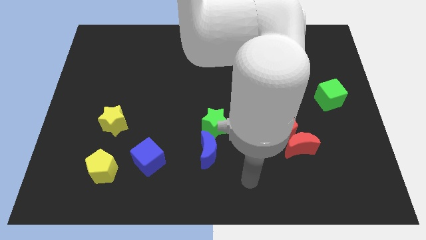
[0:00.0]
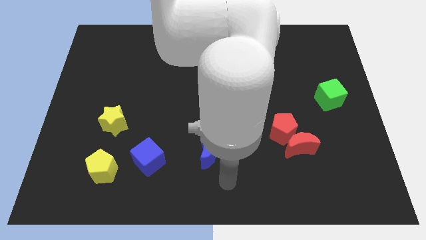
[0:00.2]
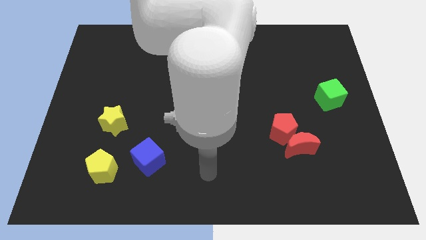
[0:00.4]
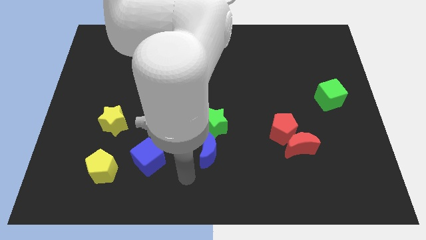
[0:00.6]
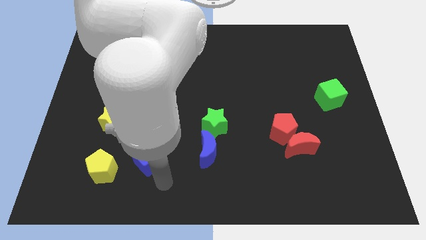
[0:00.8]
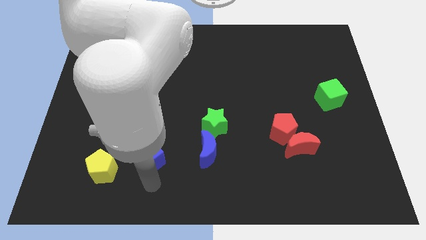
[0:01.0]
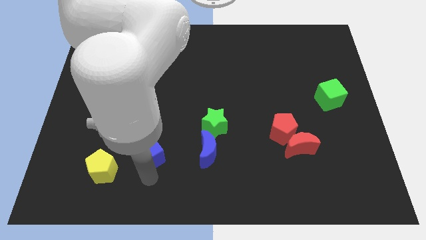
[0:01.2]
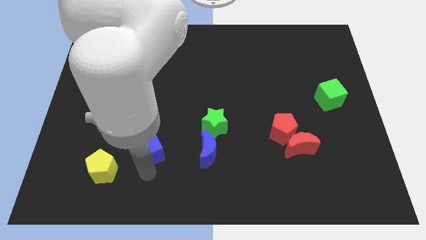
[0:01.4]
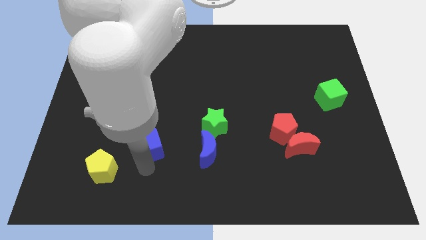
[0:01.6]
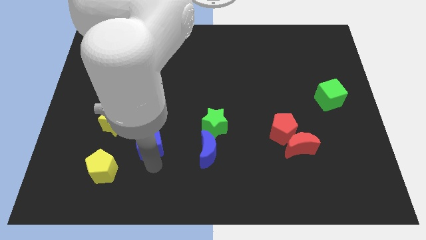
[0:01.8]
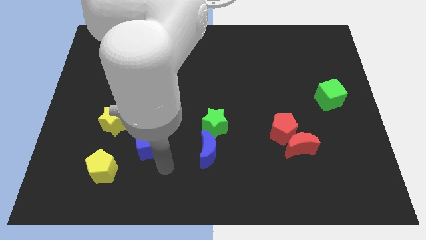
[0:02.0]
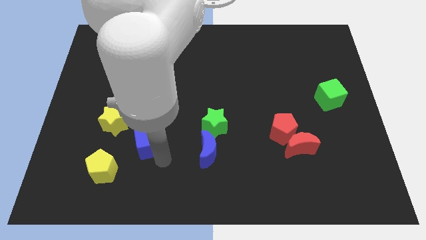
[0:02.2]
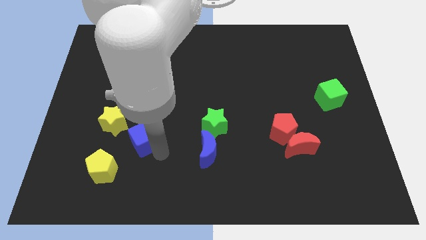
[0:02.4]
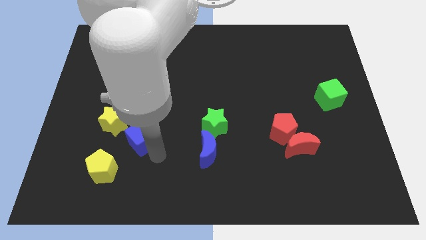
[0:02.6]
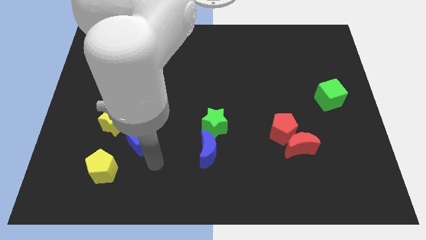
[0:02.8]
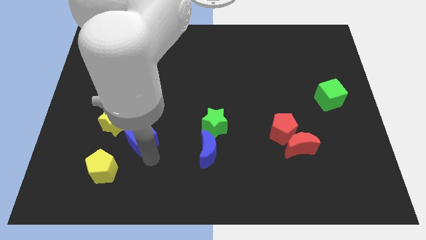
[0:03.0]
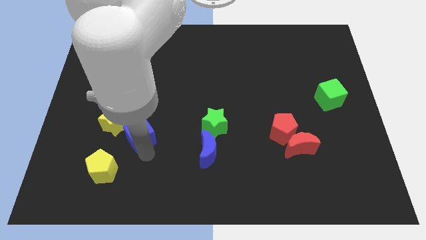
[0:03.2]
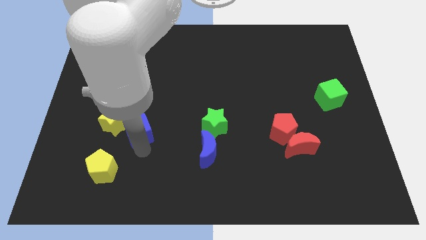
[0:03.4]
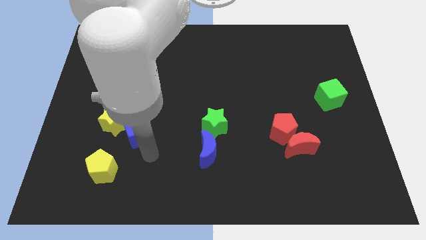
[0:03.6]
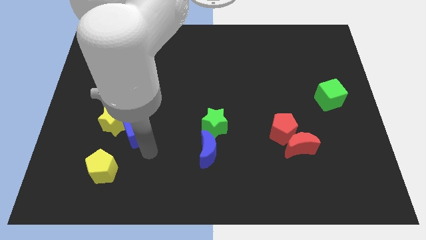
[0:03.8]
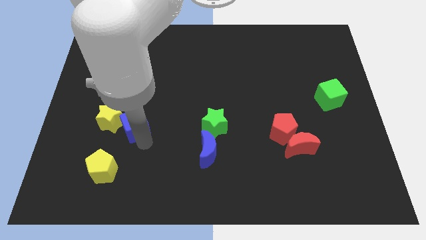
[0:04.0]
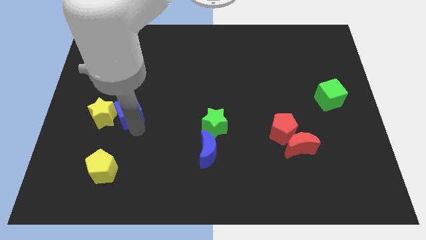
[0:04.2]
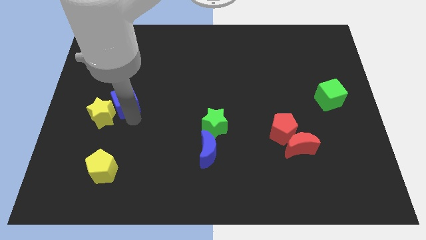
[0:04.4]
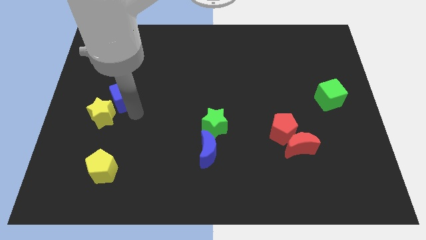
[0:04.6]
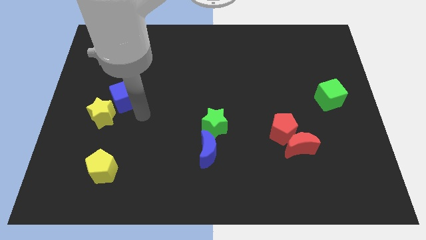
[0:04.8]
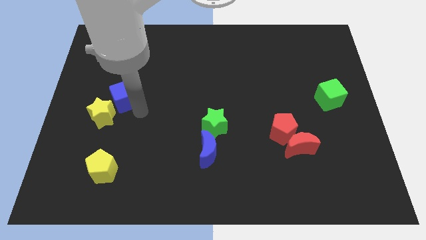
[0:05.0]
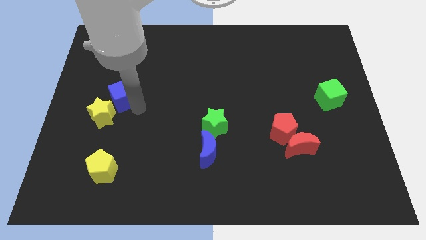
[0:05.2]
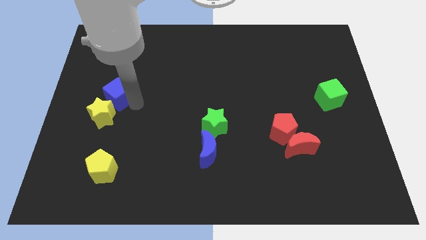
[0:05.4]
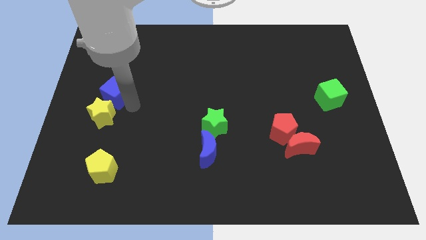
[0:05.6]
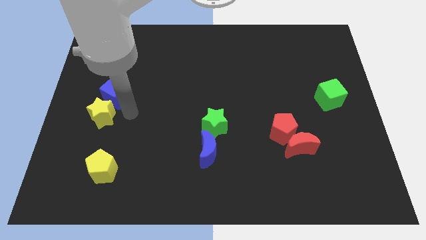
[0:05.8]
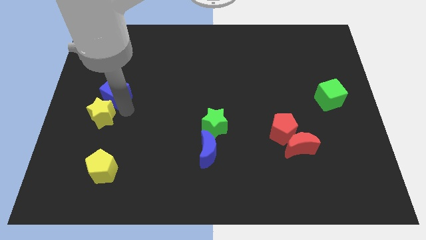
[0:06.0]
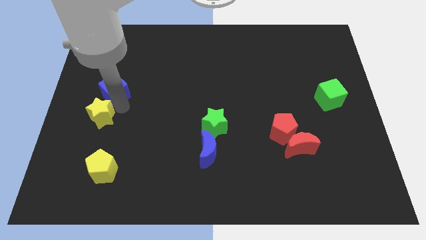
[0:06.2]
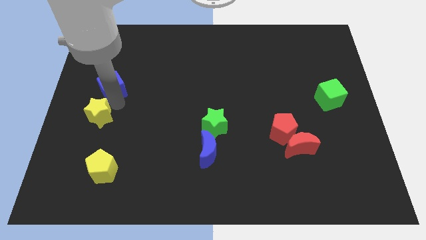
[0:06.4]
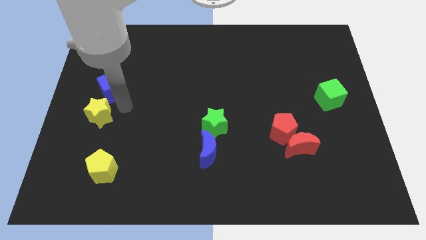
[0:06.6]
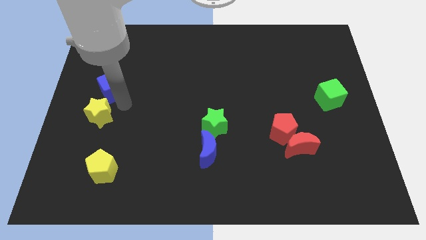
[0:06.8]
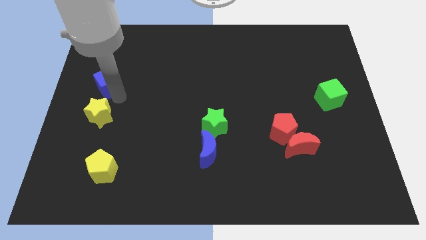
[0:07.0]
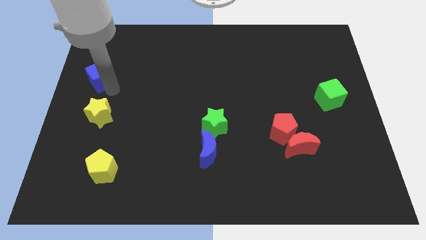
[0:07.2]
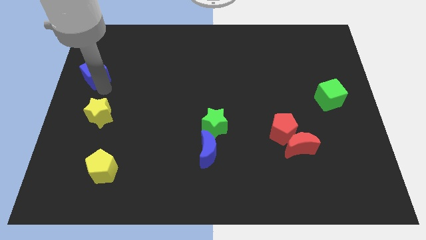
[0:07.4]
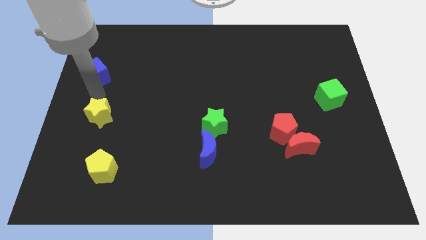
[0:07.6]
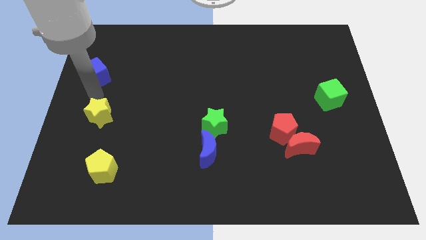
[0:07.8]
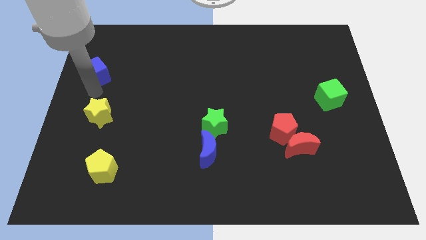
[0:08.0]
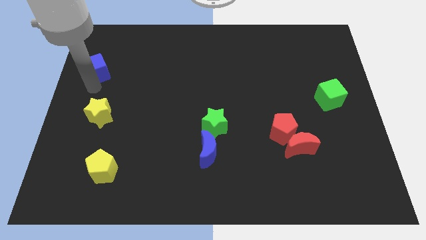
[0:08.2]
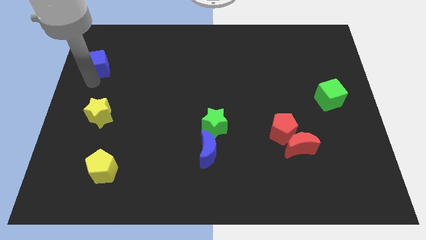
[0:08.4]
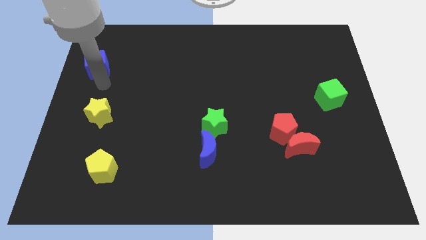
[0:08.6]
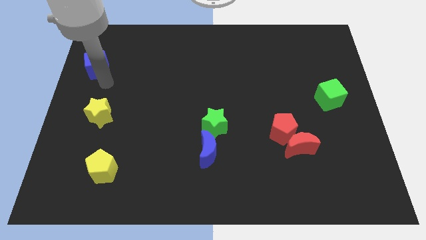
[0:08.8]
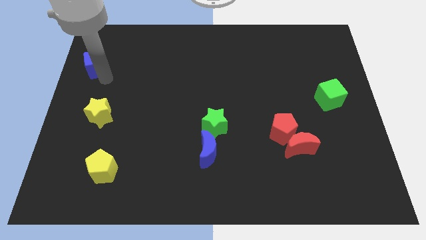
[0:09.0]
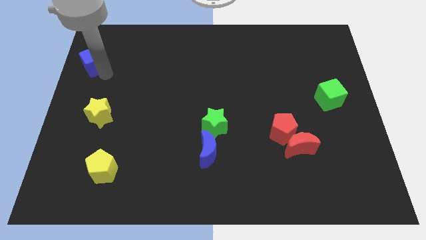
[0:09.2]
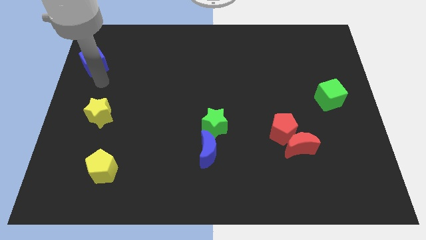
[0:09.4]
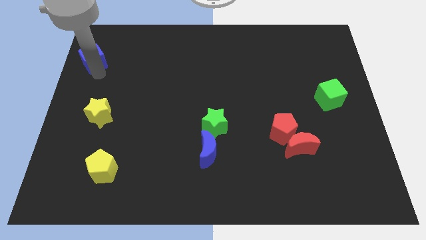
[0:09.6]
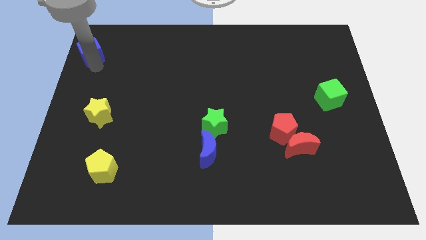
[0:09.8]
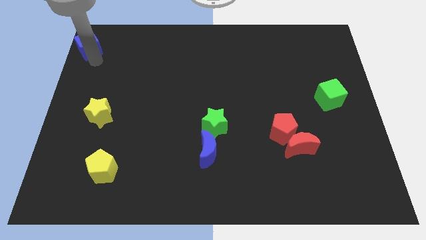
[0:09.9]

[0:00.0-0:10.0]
put the blue cube to the top left corner

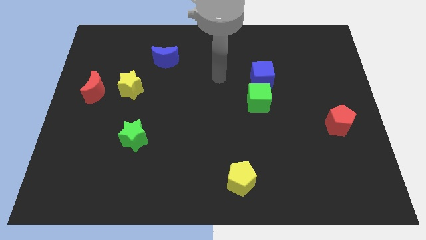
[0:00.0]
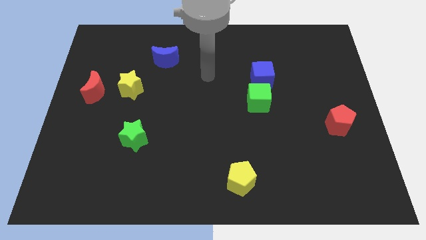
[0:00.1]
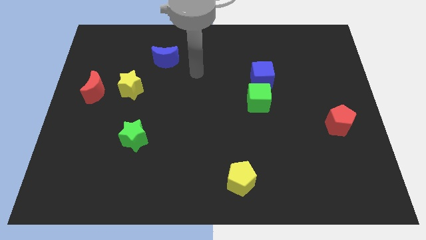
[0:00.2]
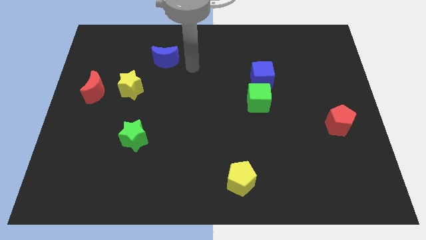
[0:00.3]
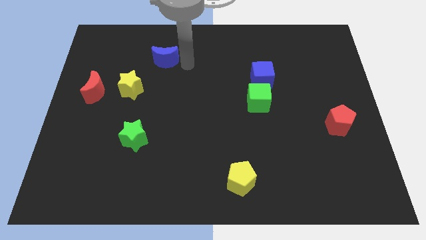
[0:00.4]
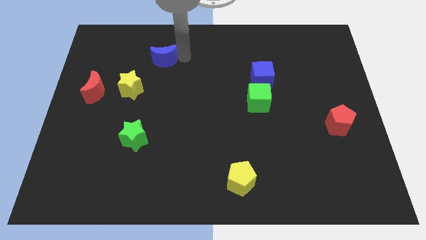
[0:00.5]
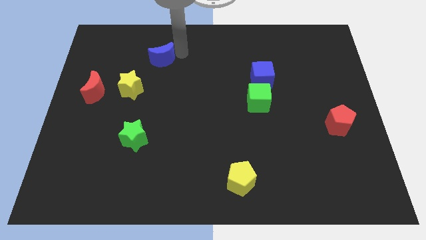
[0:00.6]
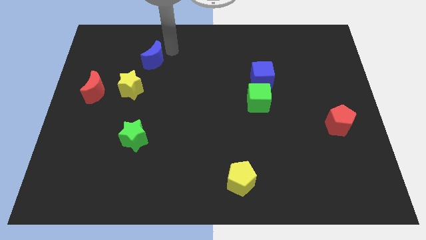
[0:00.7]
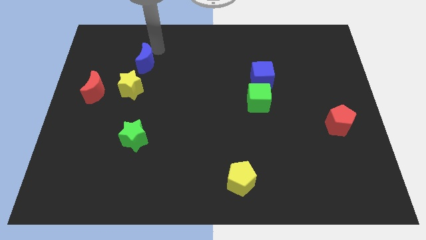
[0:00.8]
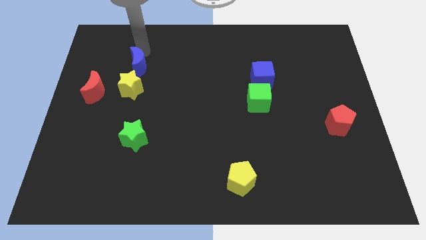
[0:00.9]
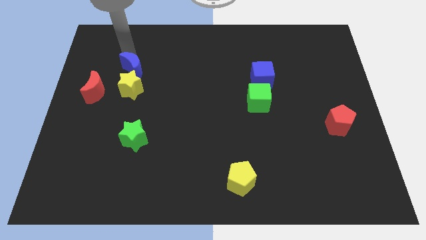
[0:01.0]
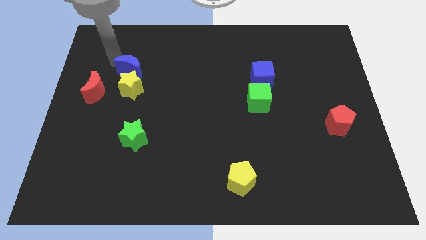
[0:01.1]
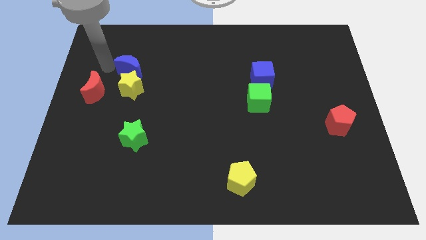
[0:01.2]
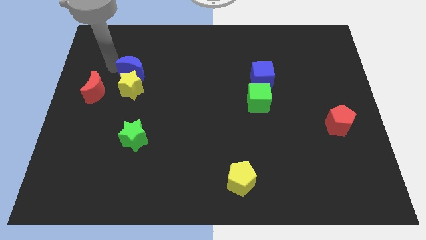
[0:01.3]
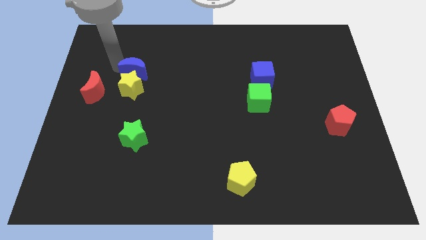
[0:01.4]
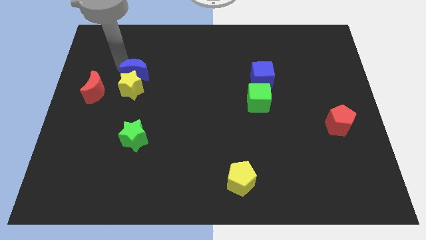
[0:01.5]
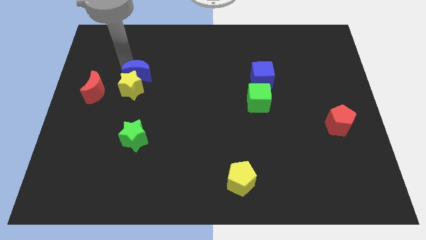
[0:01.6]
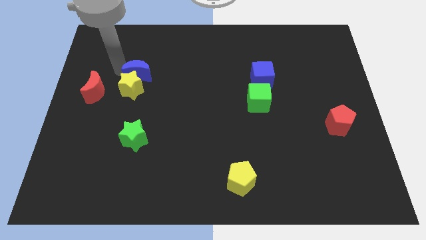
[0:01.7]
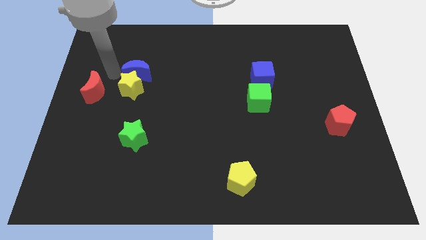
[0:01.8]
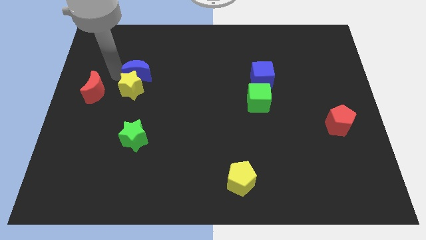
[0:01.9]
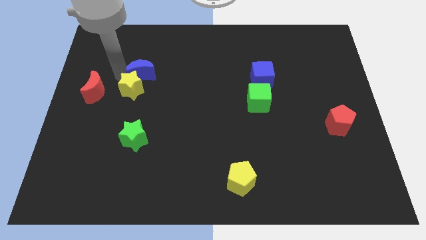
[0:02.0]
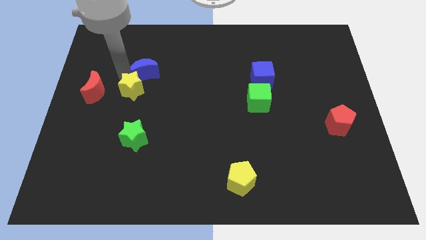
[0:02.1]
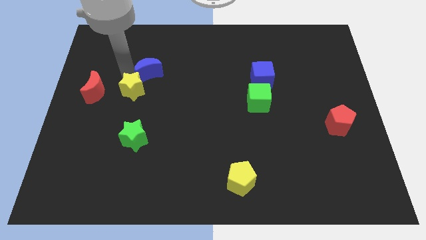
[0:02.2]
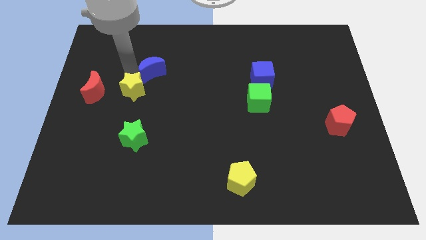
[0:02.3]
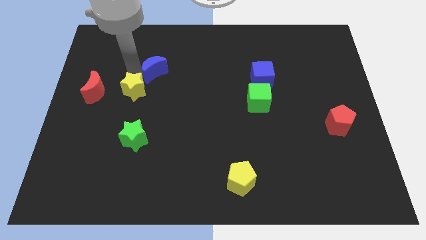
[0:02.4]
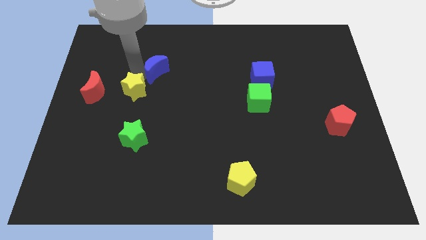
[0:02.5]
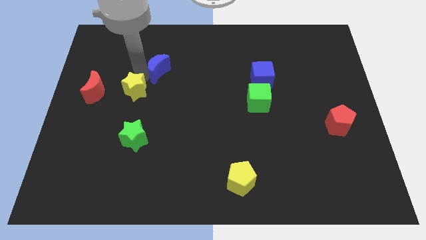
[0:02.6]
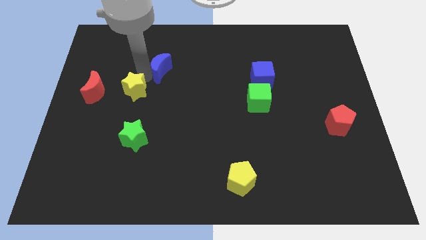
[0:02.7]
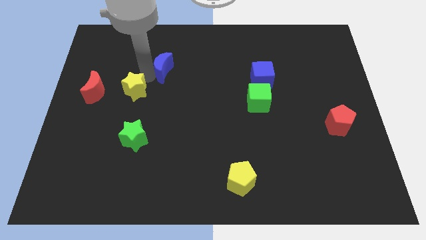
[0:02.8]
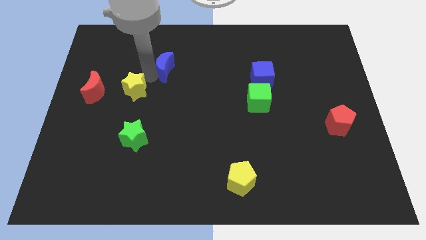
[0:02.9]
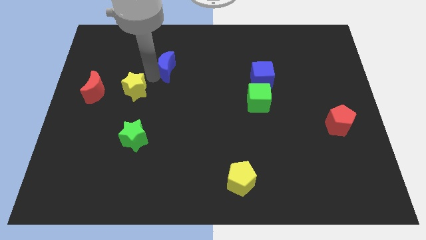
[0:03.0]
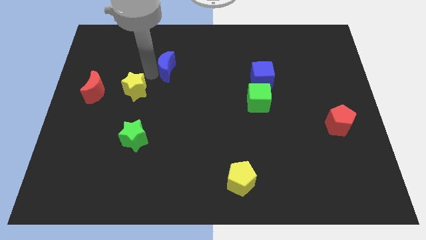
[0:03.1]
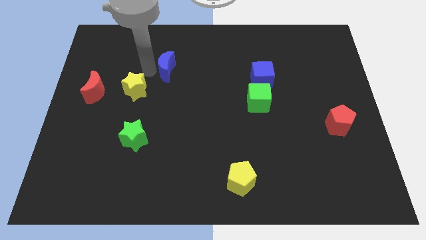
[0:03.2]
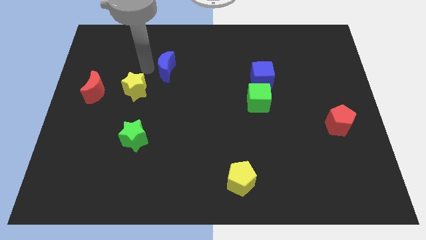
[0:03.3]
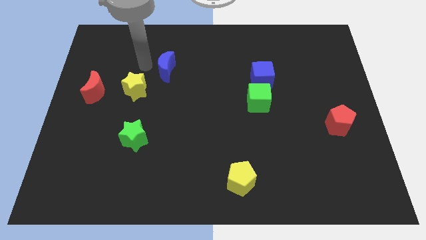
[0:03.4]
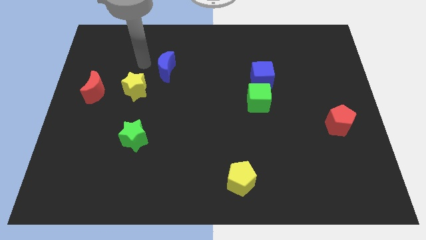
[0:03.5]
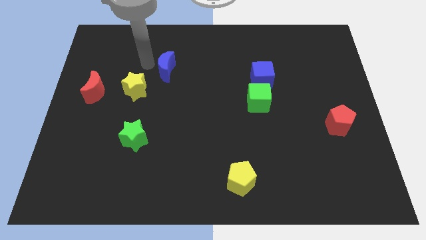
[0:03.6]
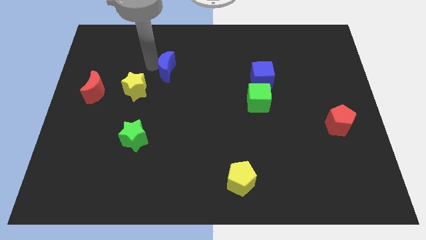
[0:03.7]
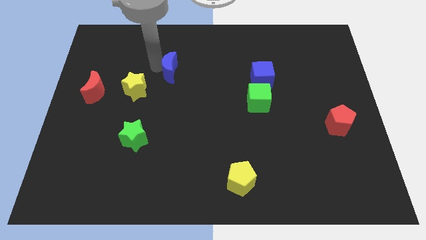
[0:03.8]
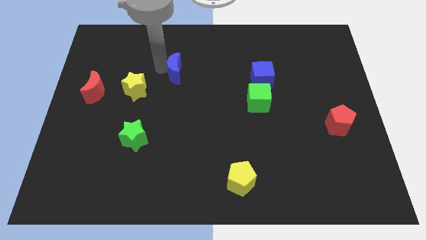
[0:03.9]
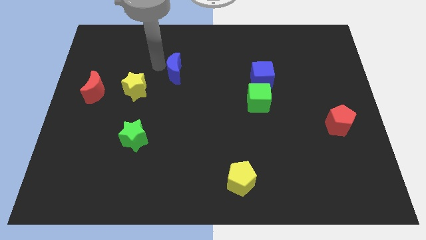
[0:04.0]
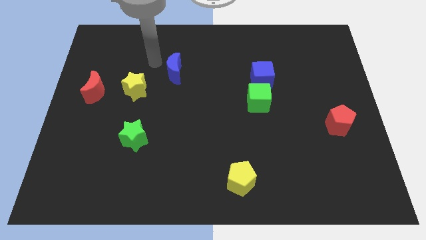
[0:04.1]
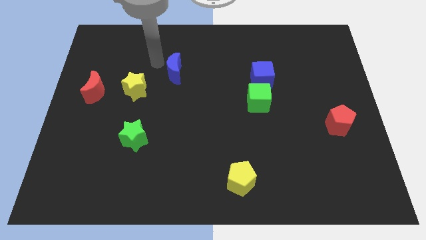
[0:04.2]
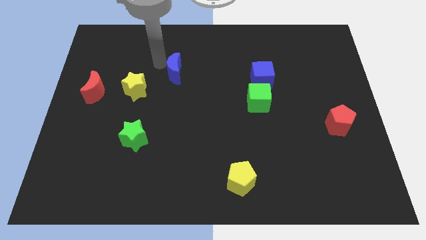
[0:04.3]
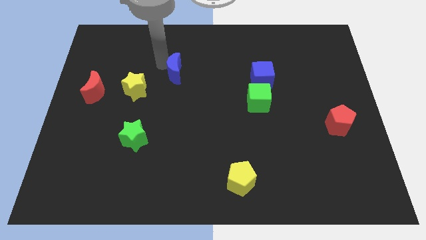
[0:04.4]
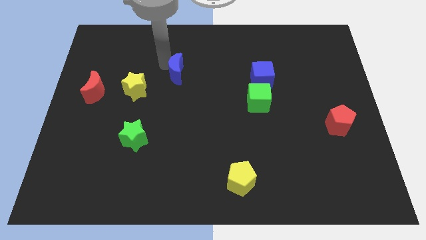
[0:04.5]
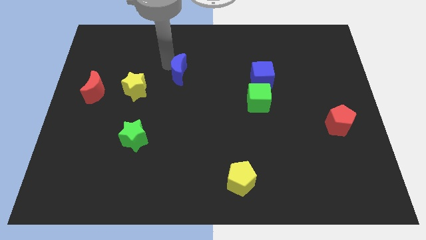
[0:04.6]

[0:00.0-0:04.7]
push the blue moon to the center
